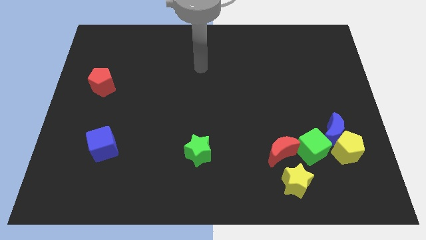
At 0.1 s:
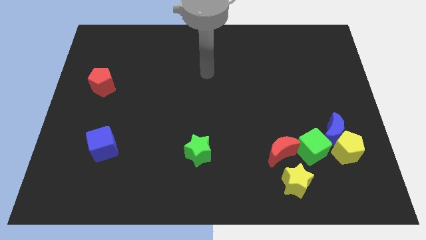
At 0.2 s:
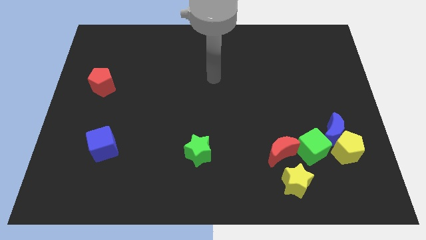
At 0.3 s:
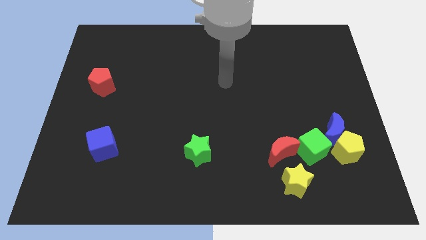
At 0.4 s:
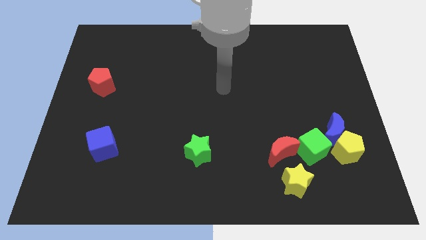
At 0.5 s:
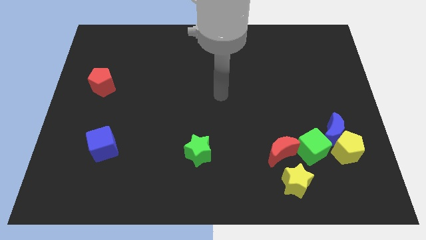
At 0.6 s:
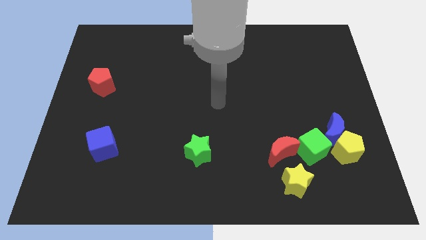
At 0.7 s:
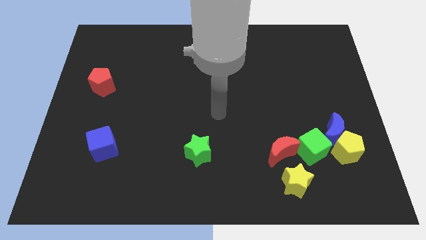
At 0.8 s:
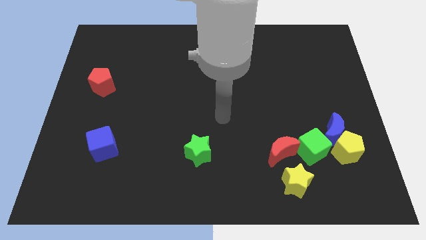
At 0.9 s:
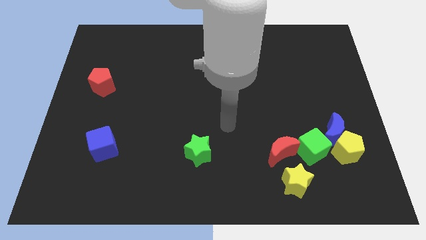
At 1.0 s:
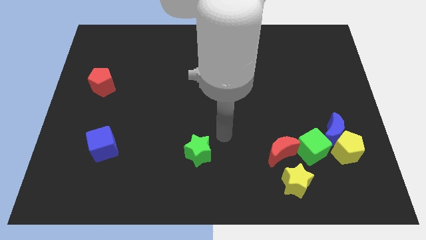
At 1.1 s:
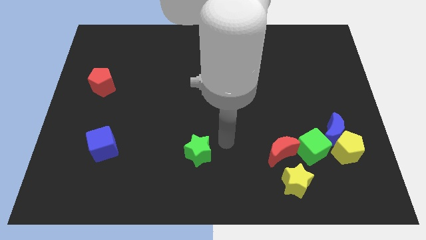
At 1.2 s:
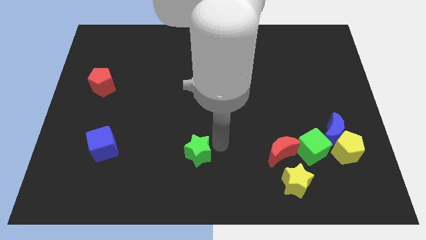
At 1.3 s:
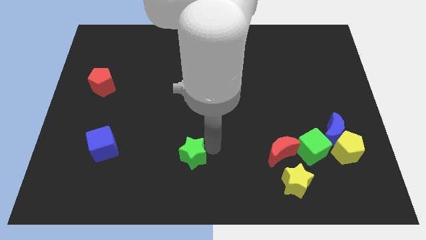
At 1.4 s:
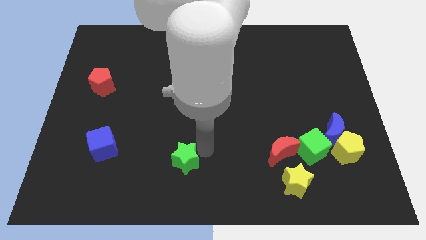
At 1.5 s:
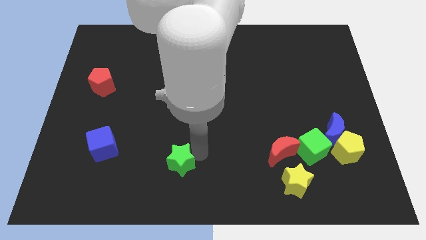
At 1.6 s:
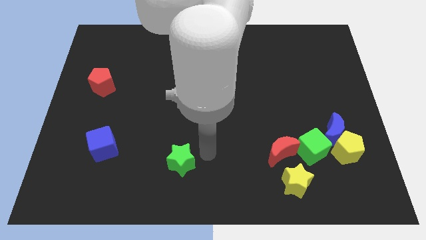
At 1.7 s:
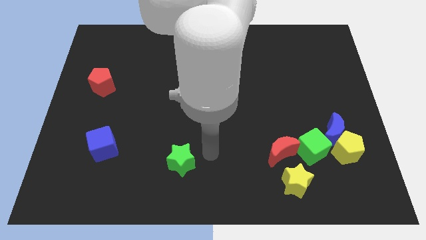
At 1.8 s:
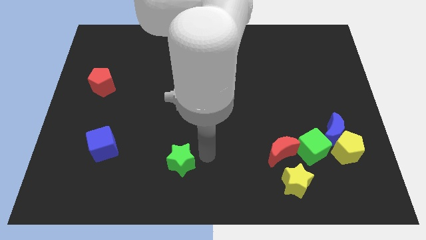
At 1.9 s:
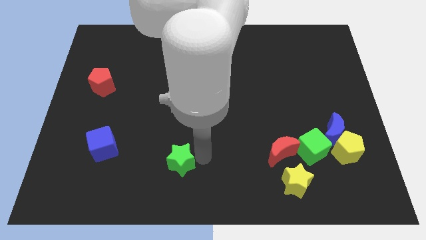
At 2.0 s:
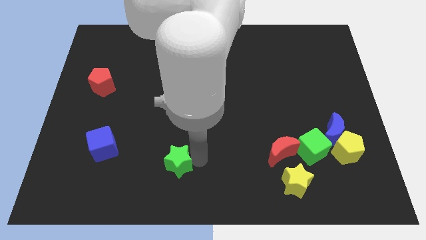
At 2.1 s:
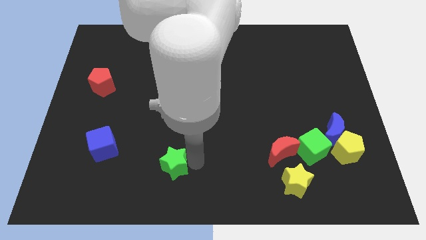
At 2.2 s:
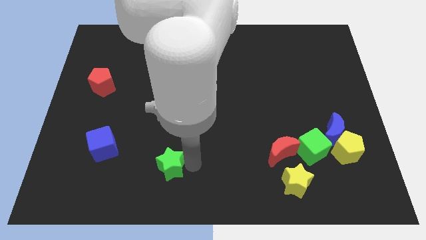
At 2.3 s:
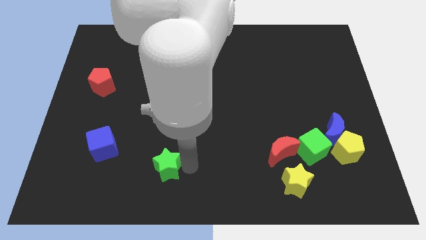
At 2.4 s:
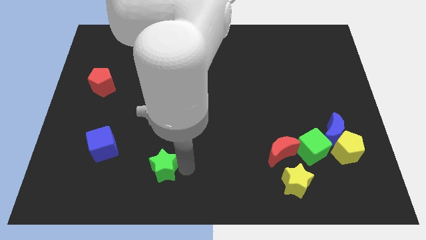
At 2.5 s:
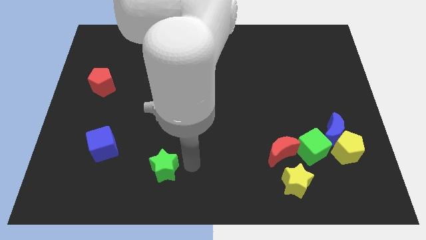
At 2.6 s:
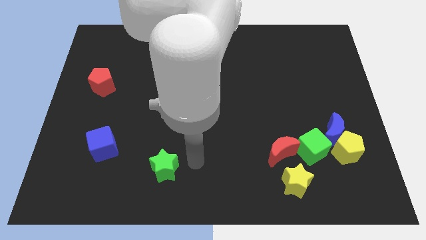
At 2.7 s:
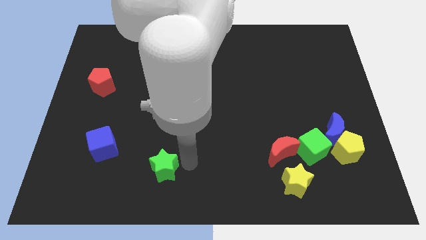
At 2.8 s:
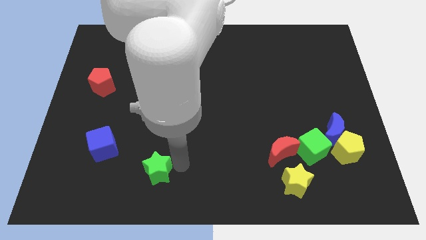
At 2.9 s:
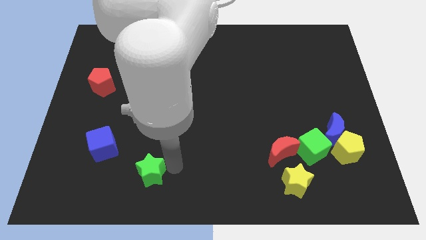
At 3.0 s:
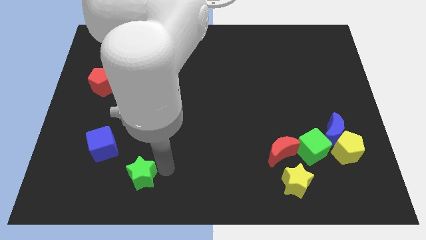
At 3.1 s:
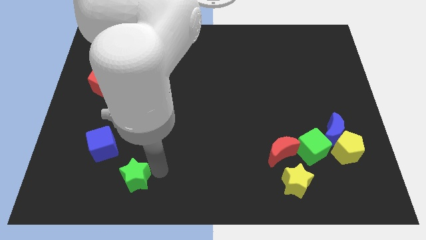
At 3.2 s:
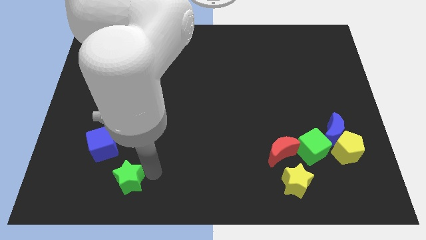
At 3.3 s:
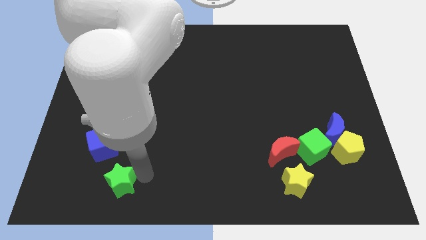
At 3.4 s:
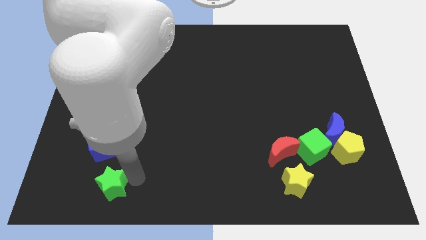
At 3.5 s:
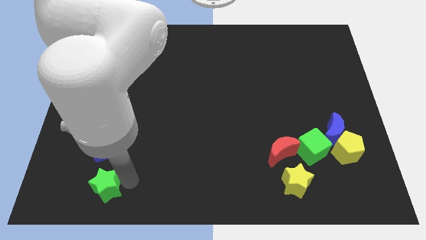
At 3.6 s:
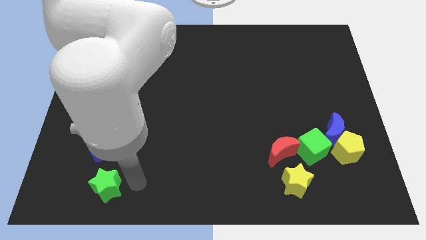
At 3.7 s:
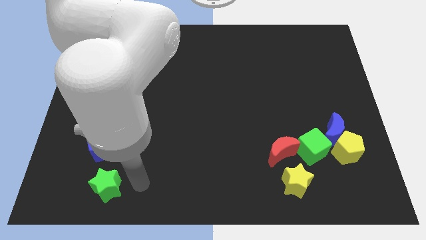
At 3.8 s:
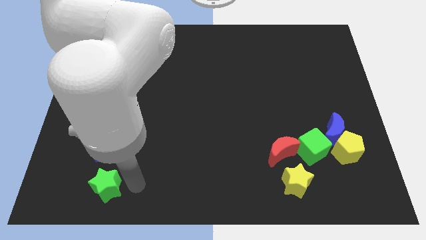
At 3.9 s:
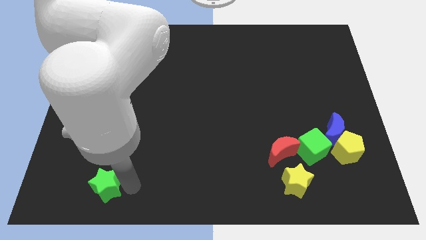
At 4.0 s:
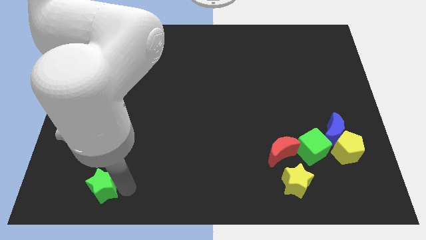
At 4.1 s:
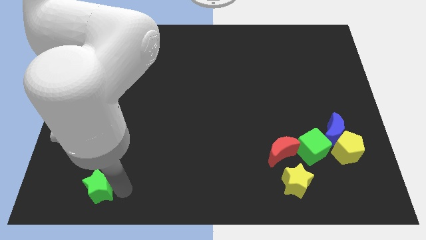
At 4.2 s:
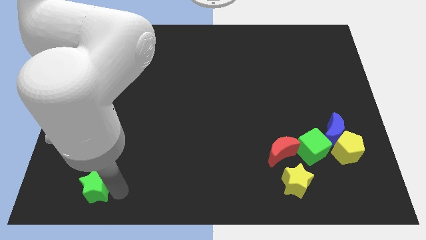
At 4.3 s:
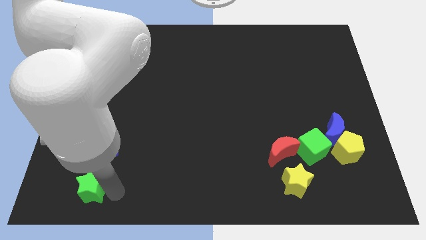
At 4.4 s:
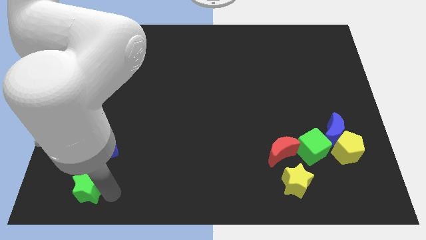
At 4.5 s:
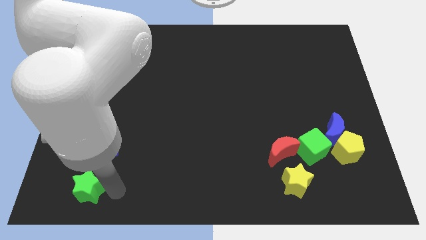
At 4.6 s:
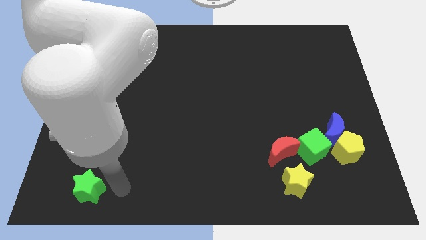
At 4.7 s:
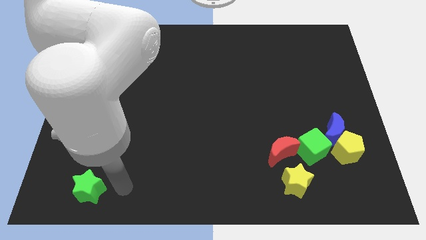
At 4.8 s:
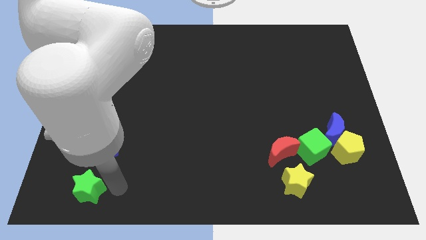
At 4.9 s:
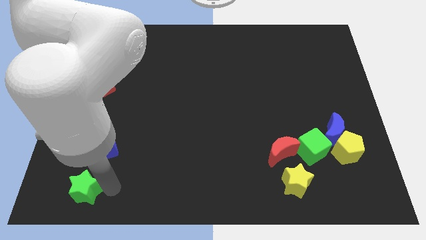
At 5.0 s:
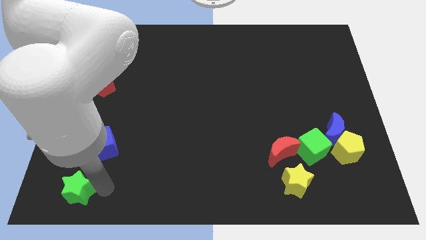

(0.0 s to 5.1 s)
move the green star to the bottom left corner

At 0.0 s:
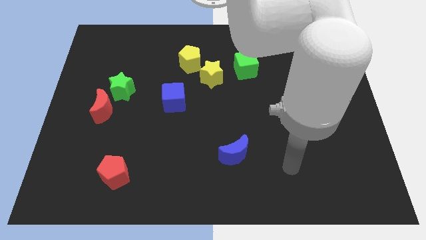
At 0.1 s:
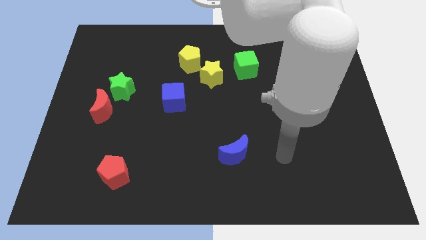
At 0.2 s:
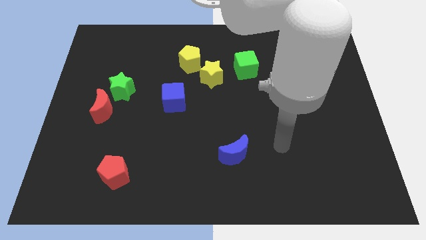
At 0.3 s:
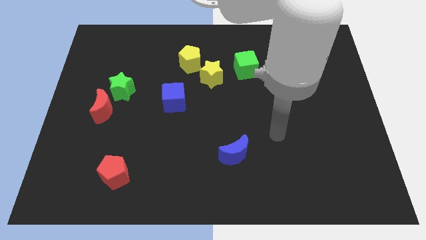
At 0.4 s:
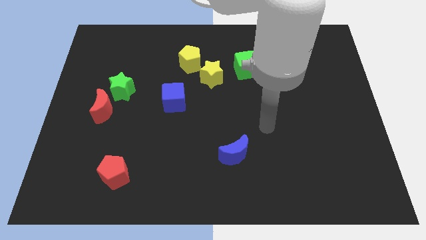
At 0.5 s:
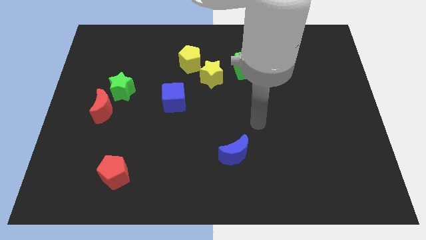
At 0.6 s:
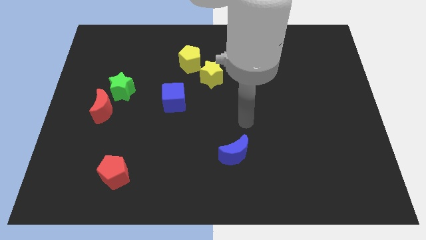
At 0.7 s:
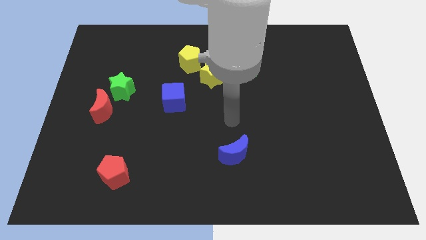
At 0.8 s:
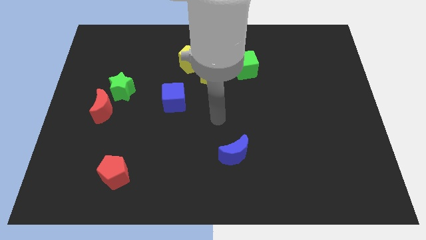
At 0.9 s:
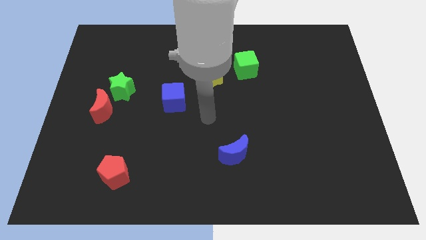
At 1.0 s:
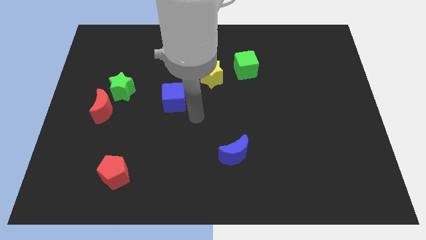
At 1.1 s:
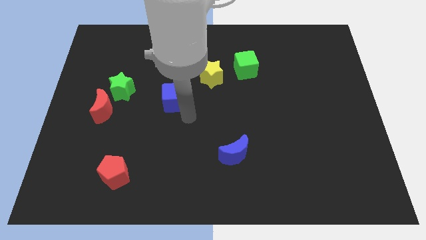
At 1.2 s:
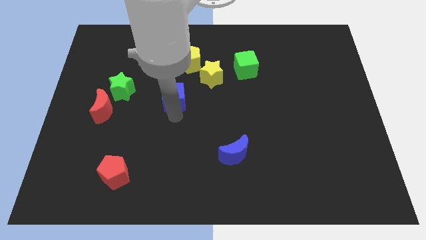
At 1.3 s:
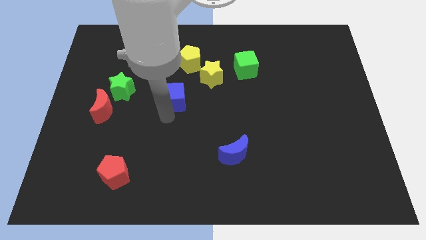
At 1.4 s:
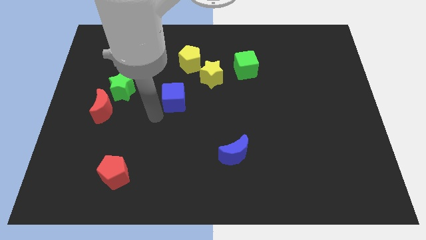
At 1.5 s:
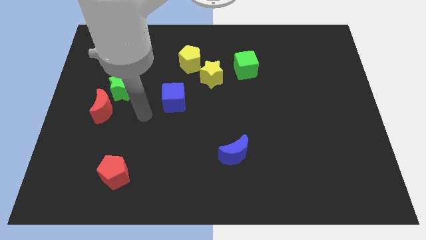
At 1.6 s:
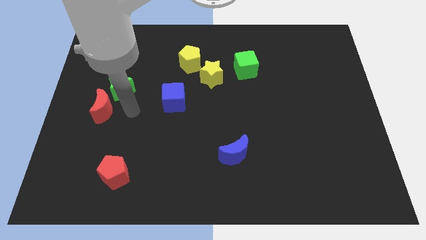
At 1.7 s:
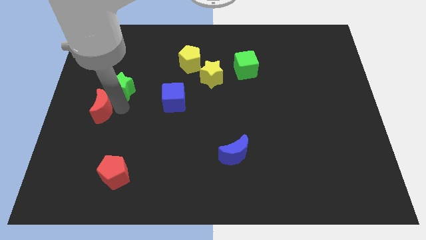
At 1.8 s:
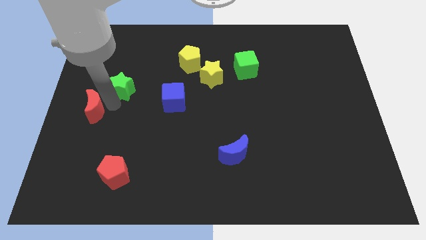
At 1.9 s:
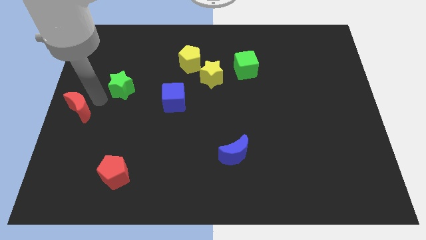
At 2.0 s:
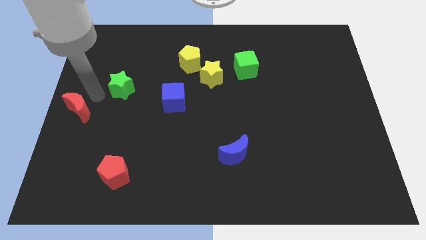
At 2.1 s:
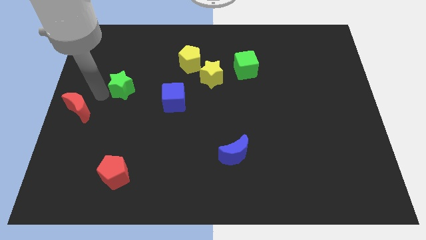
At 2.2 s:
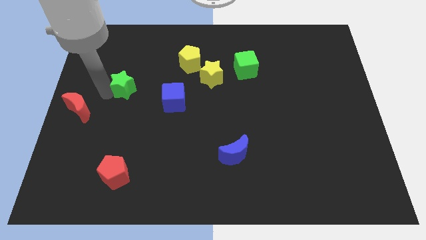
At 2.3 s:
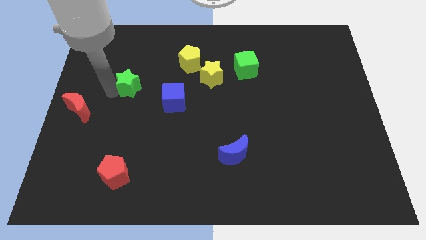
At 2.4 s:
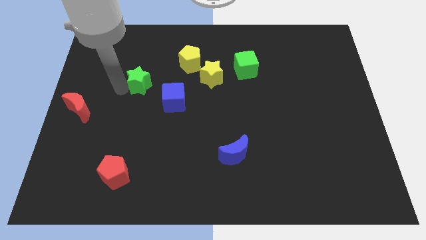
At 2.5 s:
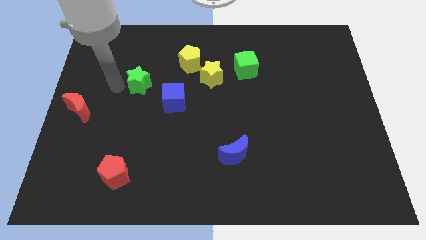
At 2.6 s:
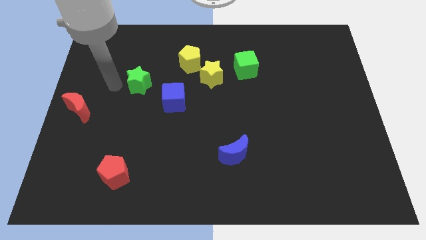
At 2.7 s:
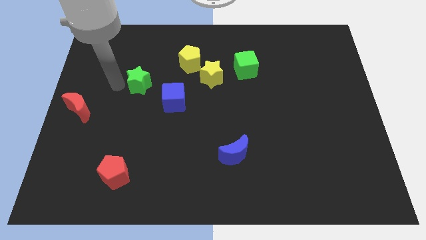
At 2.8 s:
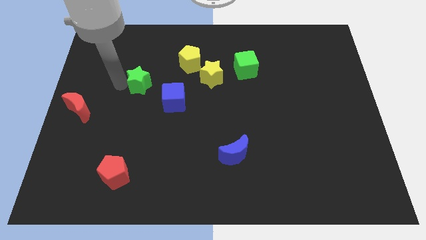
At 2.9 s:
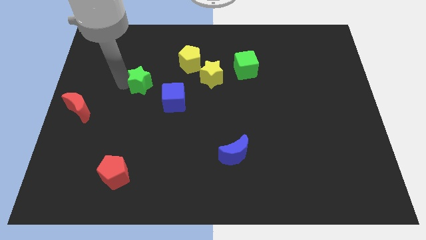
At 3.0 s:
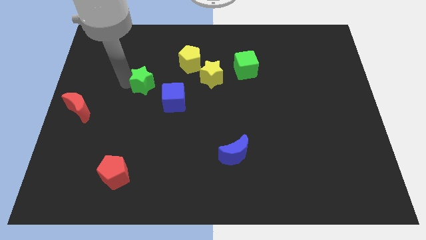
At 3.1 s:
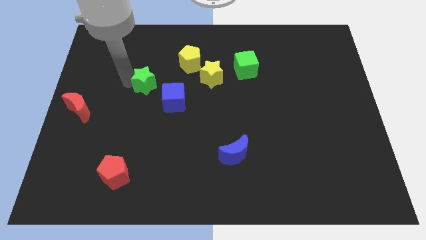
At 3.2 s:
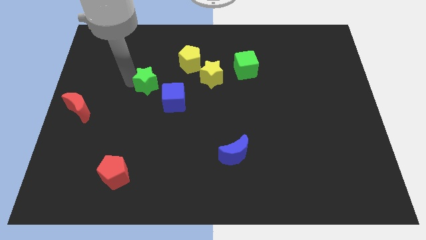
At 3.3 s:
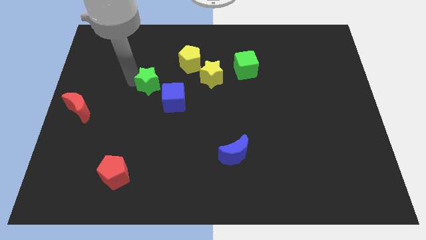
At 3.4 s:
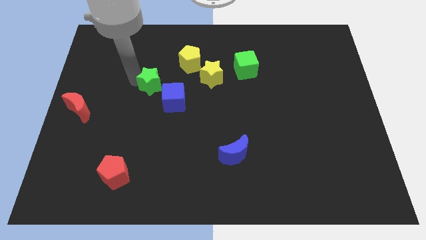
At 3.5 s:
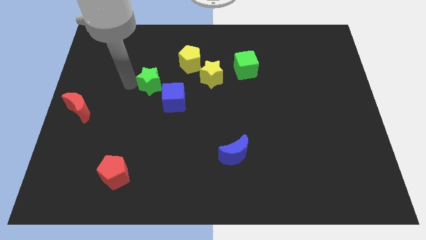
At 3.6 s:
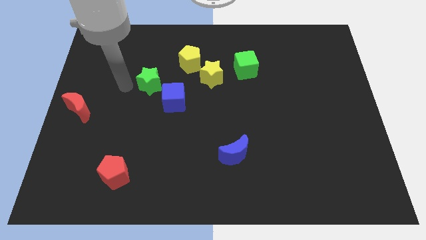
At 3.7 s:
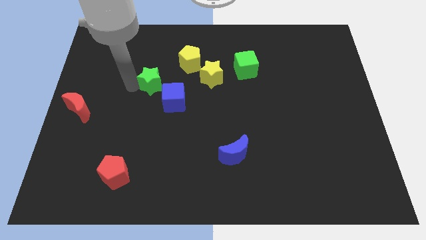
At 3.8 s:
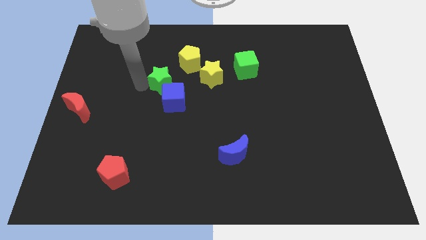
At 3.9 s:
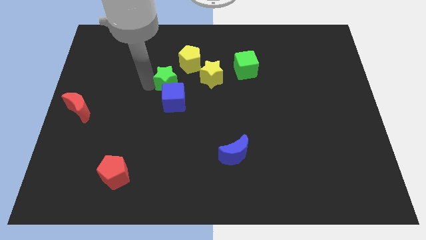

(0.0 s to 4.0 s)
put the green star to the center of the board
